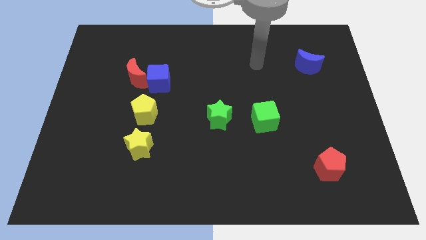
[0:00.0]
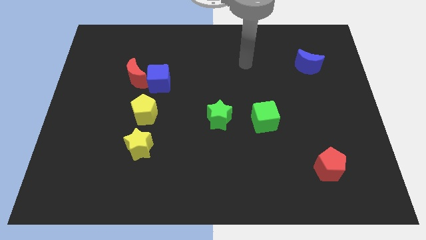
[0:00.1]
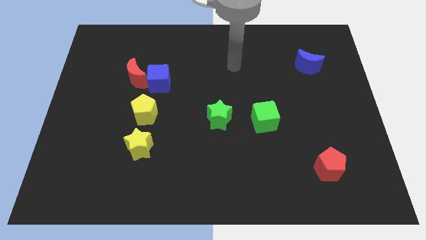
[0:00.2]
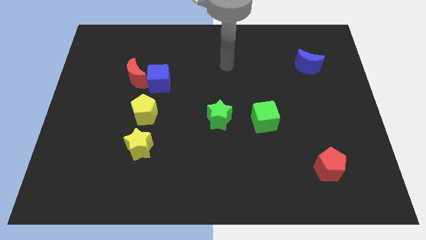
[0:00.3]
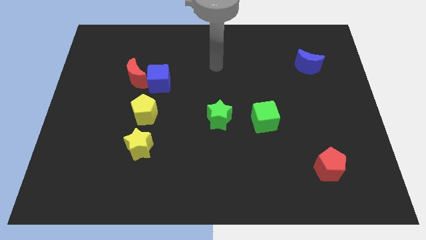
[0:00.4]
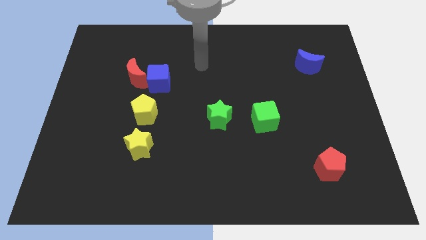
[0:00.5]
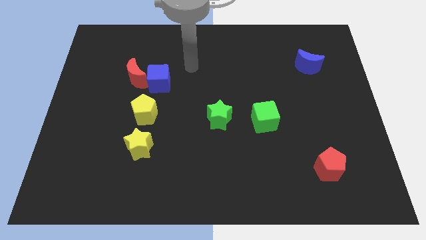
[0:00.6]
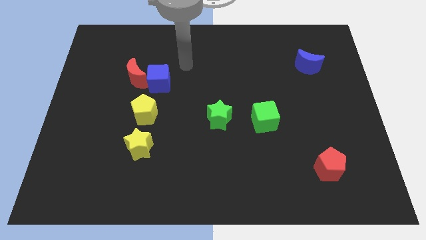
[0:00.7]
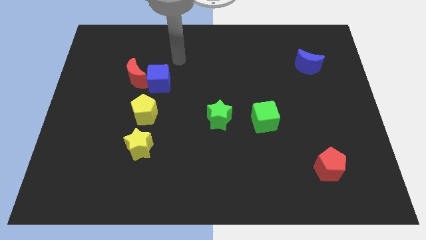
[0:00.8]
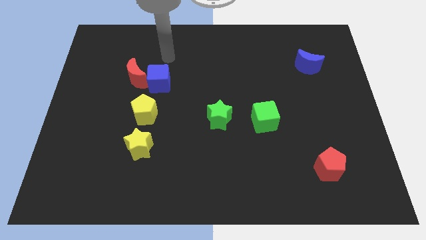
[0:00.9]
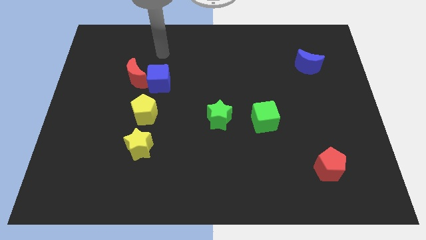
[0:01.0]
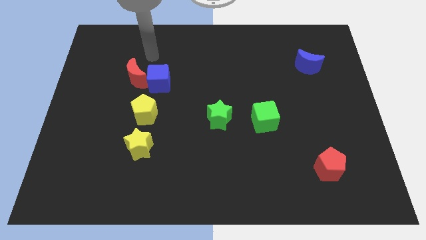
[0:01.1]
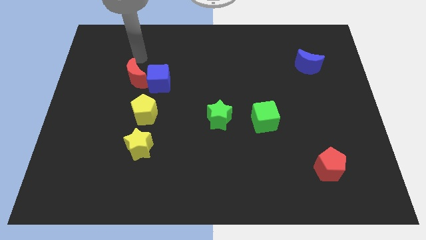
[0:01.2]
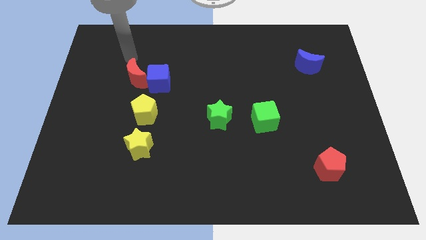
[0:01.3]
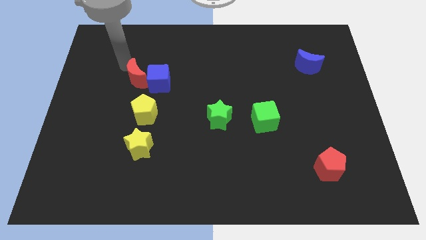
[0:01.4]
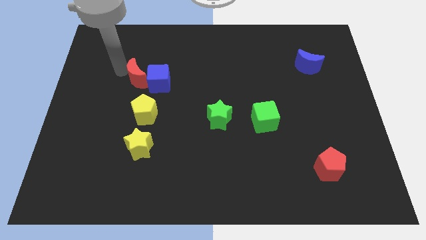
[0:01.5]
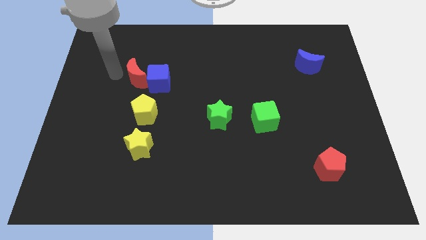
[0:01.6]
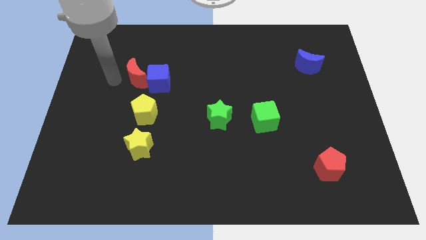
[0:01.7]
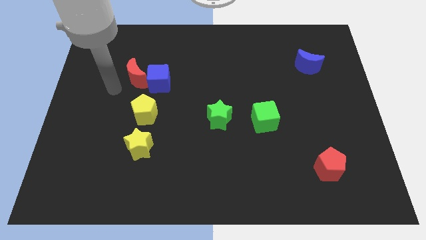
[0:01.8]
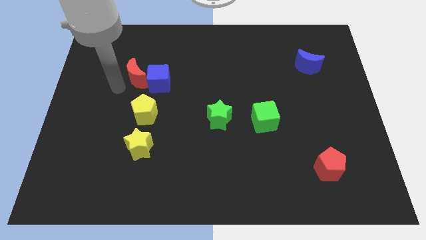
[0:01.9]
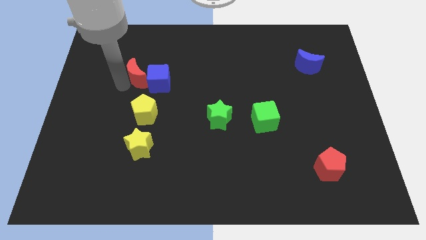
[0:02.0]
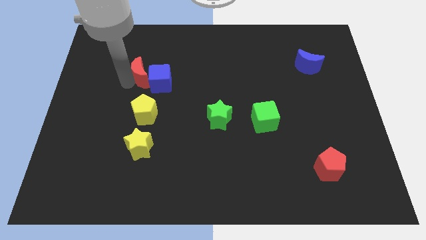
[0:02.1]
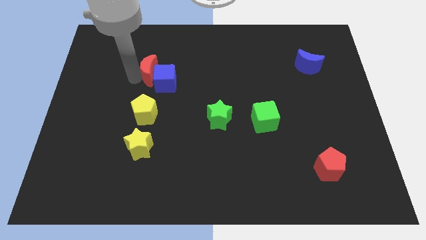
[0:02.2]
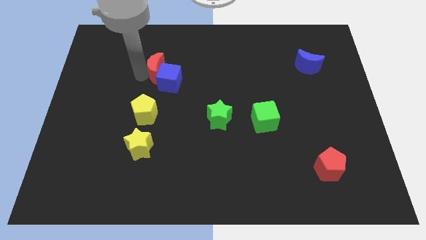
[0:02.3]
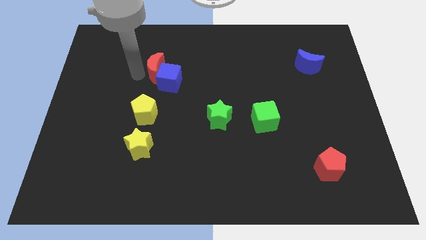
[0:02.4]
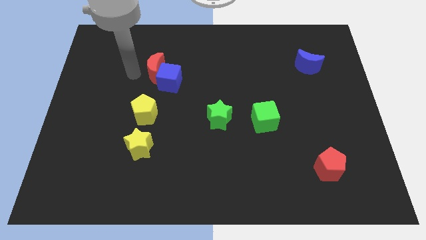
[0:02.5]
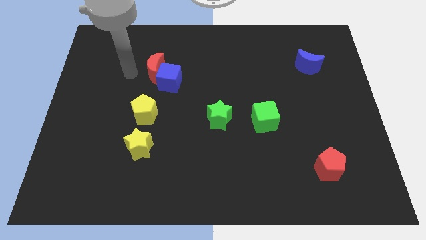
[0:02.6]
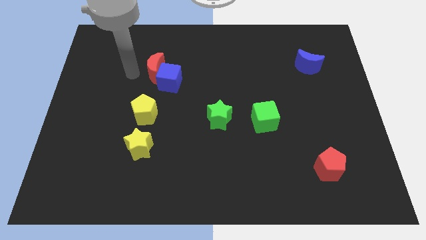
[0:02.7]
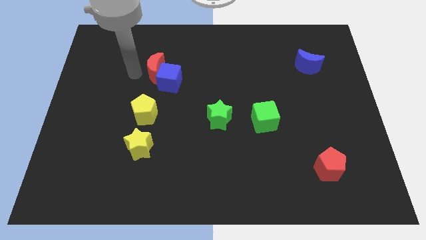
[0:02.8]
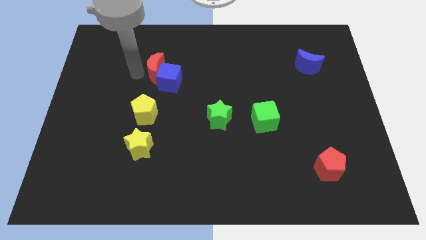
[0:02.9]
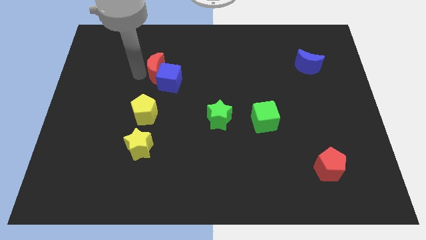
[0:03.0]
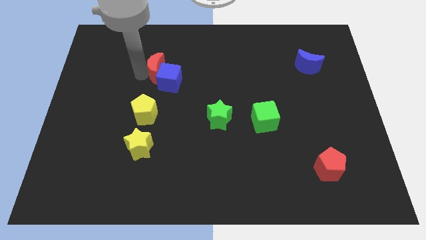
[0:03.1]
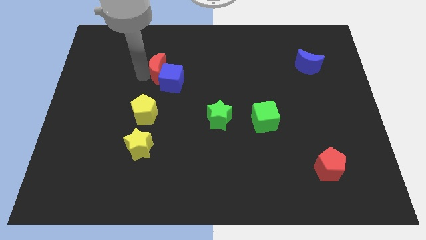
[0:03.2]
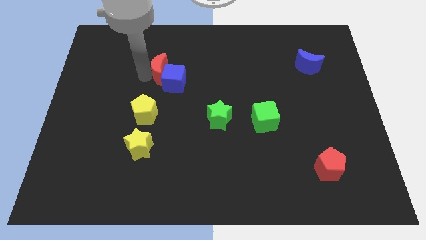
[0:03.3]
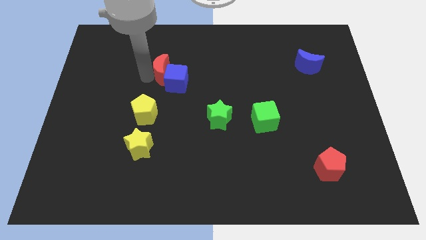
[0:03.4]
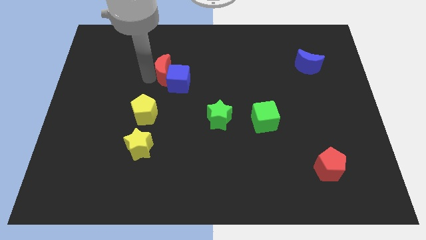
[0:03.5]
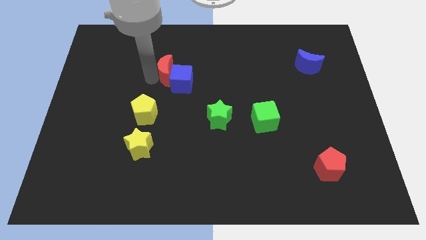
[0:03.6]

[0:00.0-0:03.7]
slide the red moon right slightly

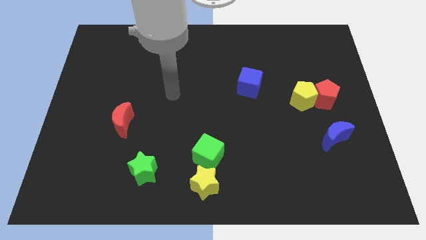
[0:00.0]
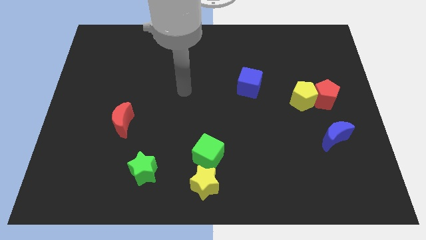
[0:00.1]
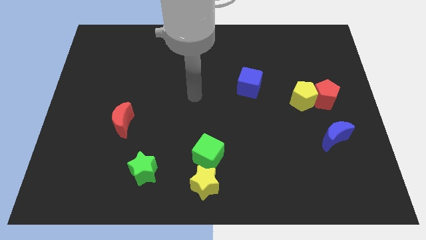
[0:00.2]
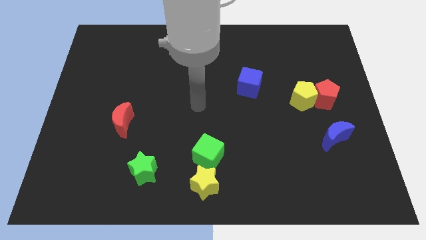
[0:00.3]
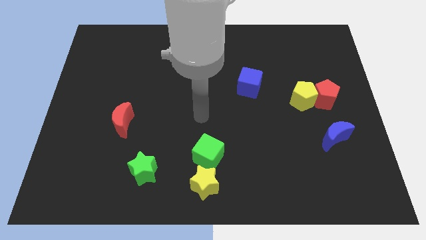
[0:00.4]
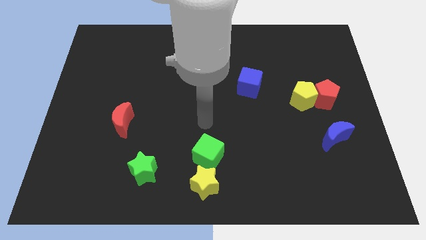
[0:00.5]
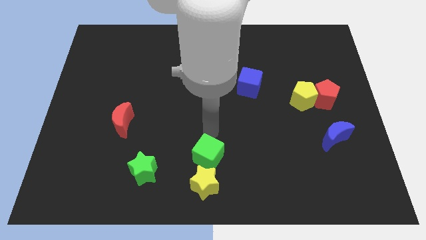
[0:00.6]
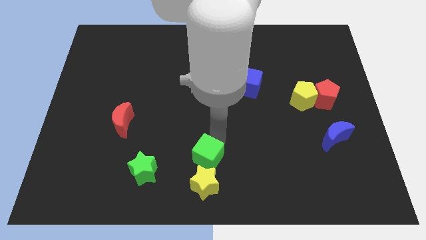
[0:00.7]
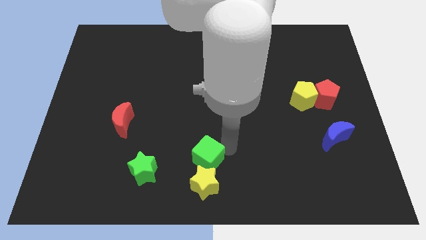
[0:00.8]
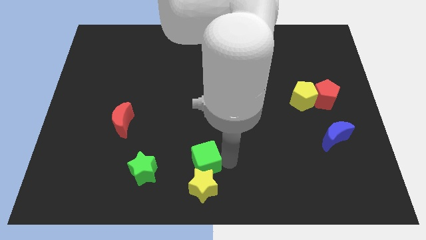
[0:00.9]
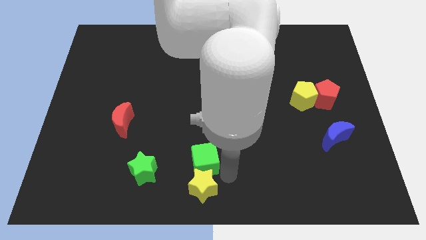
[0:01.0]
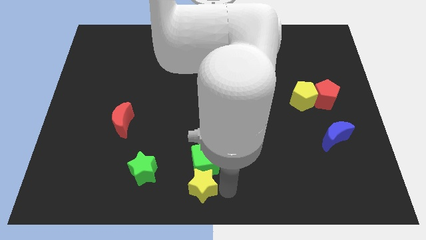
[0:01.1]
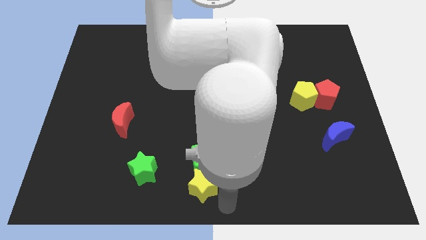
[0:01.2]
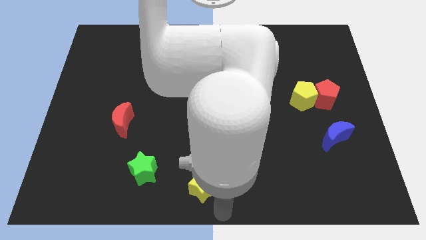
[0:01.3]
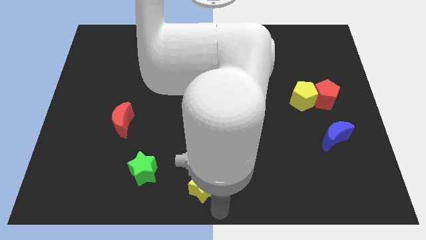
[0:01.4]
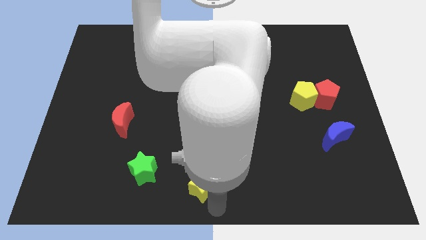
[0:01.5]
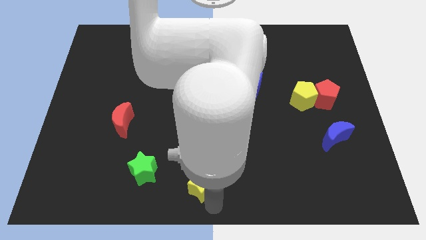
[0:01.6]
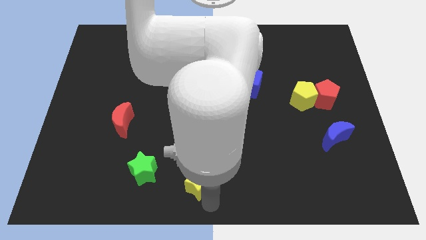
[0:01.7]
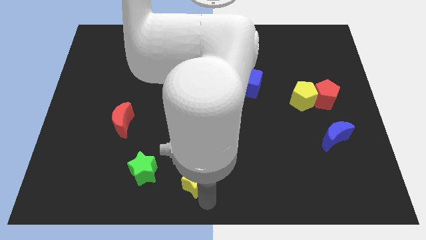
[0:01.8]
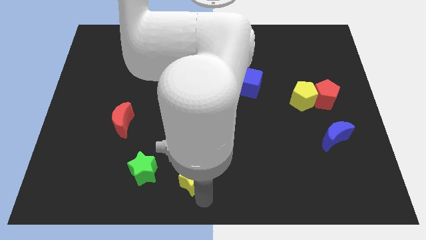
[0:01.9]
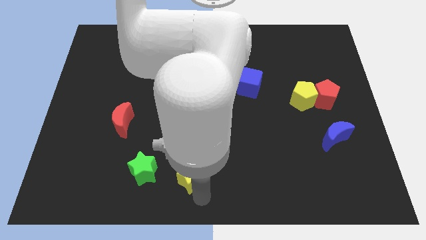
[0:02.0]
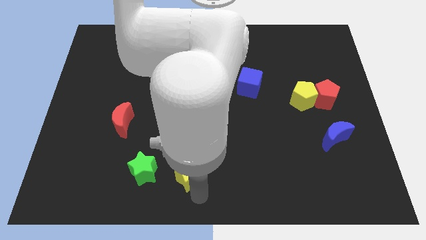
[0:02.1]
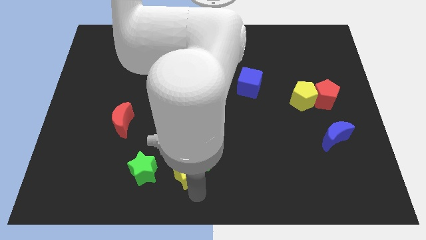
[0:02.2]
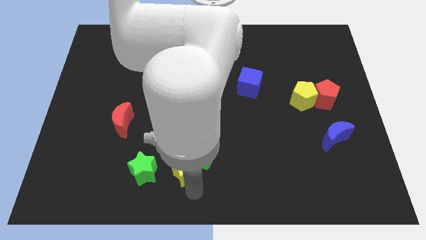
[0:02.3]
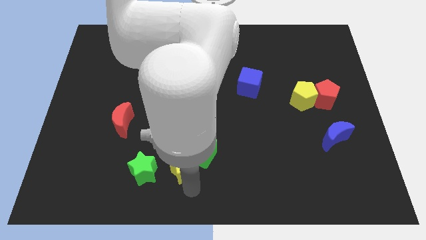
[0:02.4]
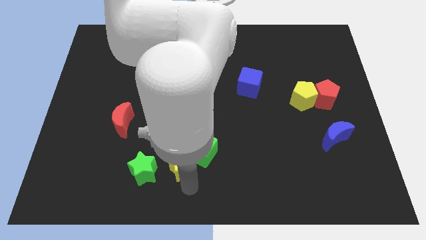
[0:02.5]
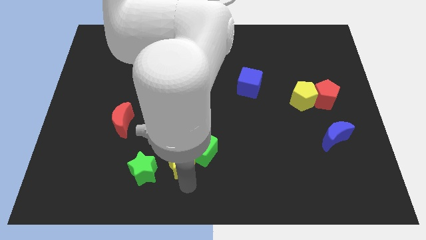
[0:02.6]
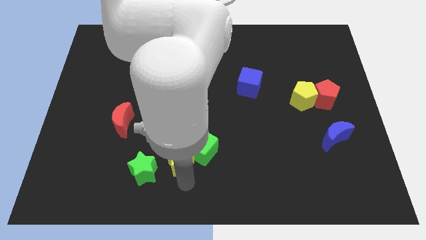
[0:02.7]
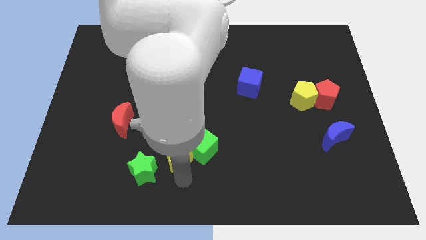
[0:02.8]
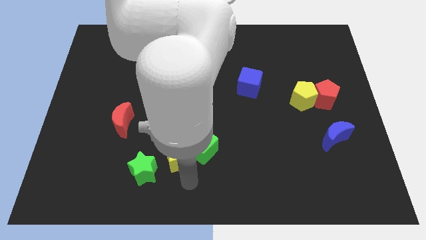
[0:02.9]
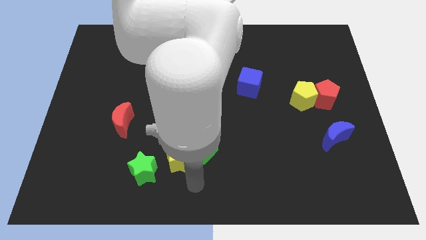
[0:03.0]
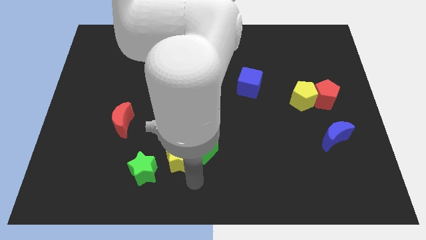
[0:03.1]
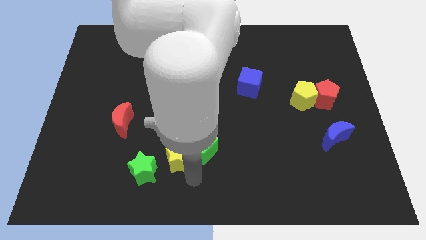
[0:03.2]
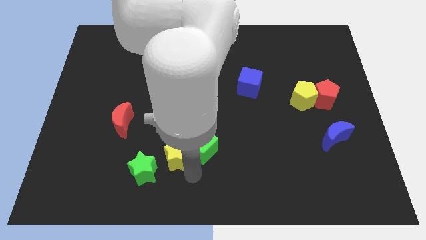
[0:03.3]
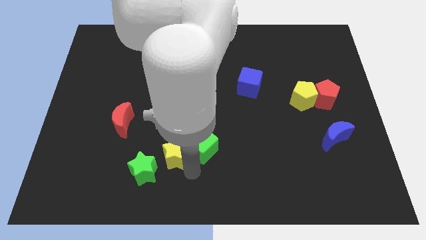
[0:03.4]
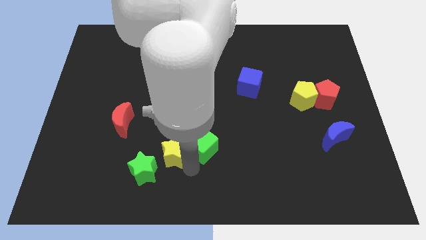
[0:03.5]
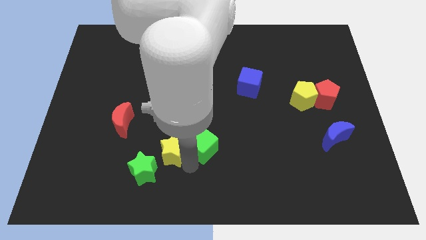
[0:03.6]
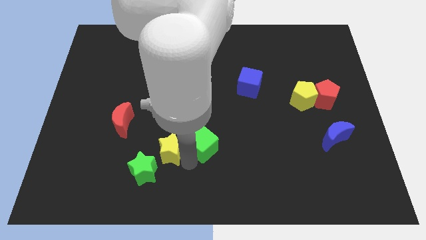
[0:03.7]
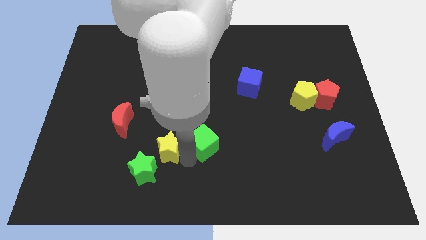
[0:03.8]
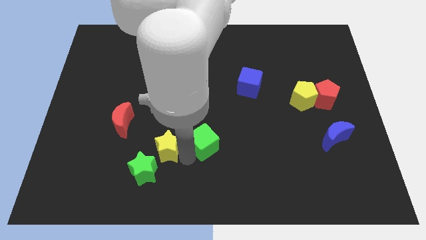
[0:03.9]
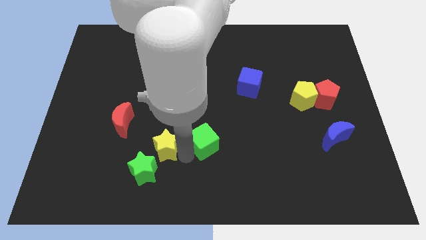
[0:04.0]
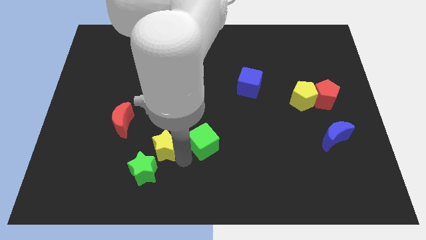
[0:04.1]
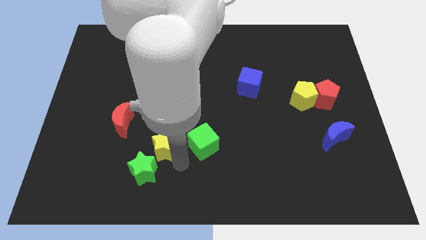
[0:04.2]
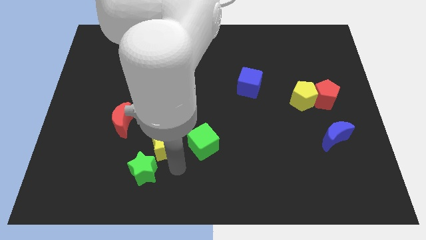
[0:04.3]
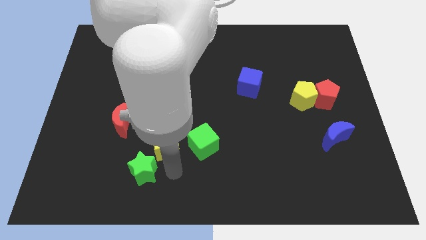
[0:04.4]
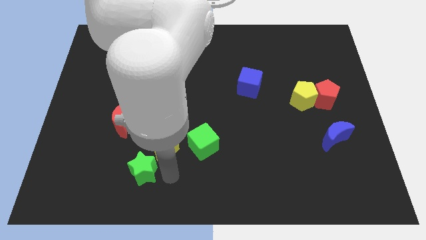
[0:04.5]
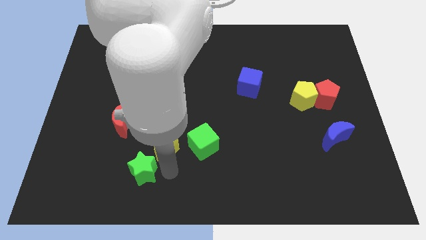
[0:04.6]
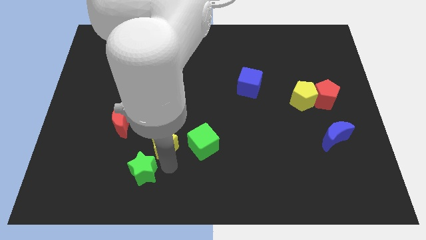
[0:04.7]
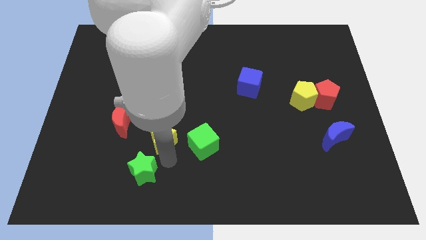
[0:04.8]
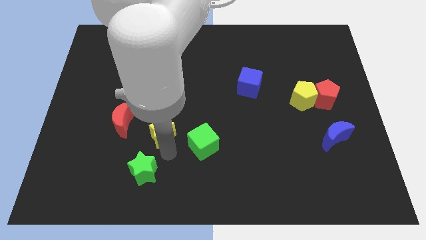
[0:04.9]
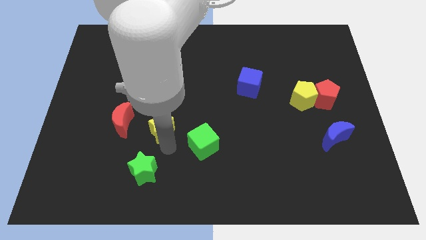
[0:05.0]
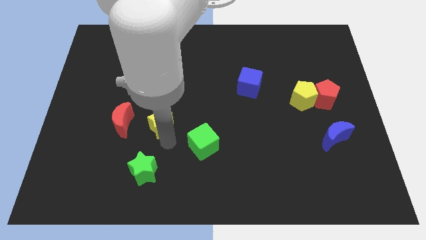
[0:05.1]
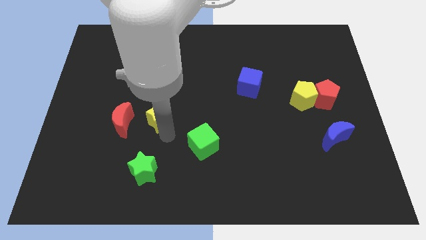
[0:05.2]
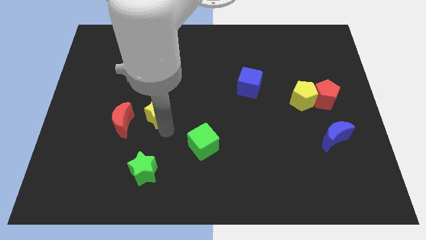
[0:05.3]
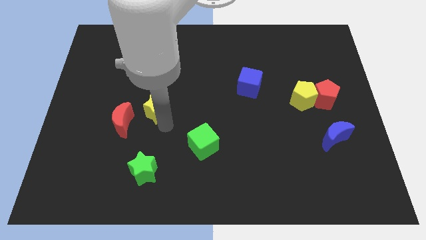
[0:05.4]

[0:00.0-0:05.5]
slide the yellow star up and to the left diagonally
